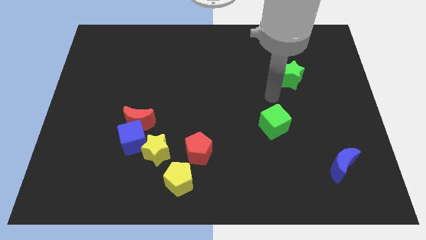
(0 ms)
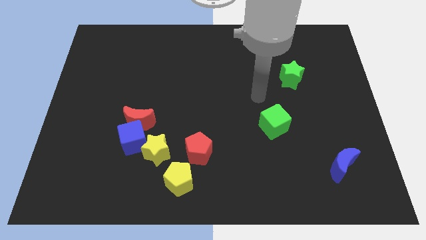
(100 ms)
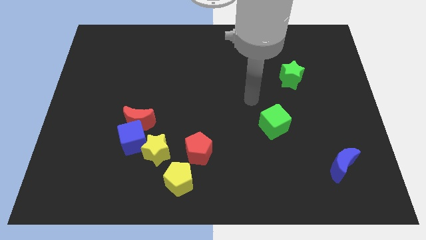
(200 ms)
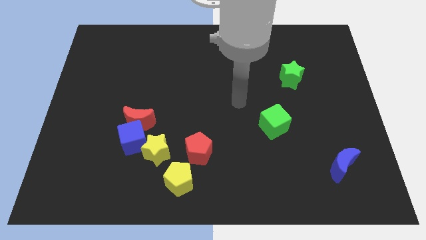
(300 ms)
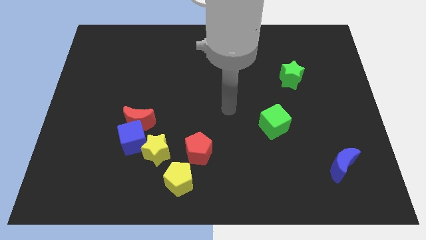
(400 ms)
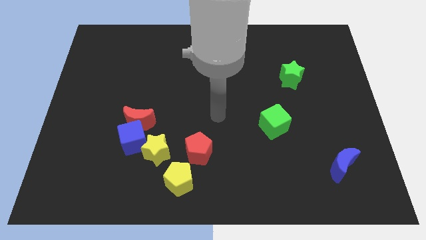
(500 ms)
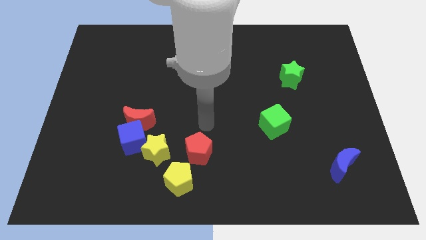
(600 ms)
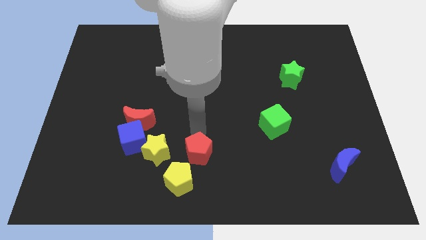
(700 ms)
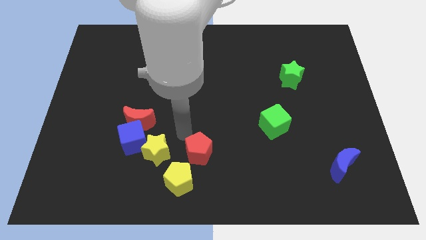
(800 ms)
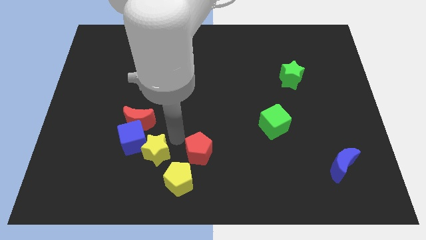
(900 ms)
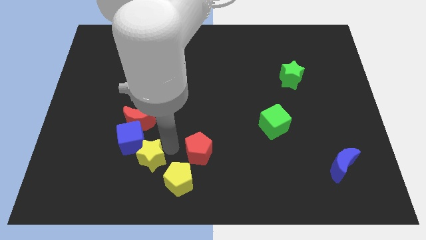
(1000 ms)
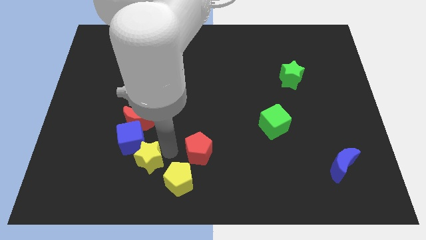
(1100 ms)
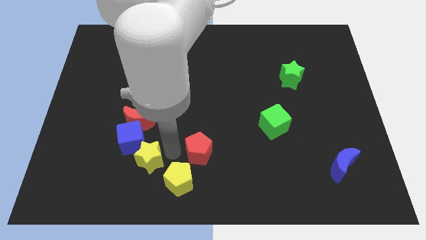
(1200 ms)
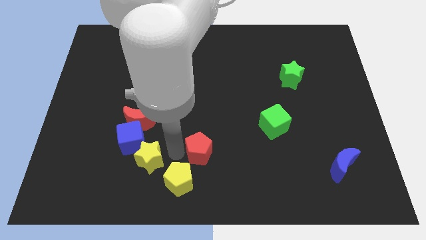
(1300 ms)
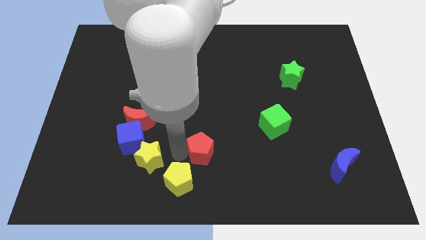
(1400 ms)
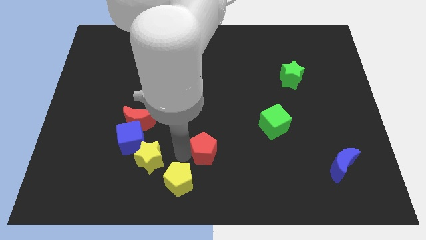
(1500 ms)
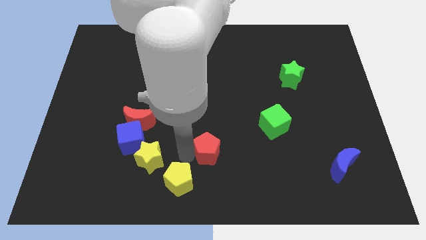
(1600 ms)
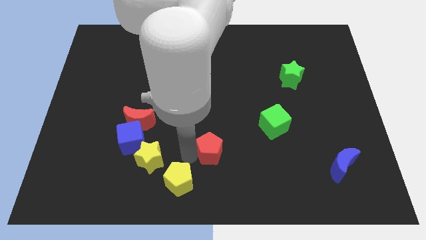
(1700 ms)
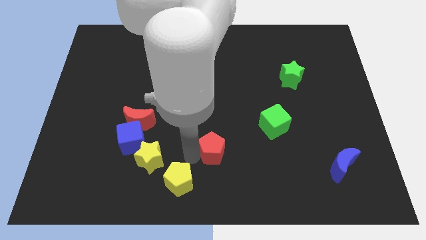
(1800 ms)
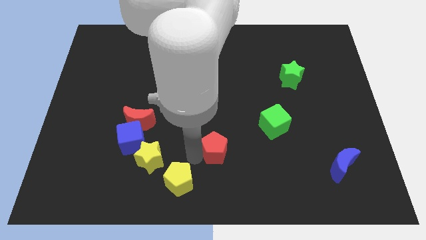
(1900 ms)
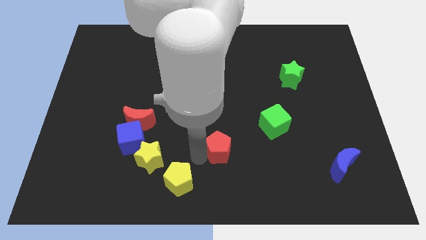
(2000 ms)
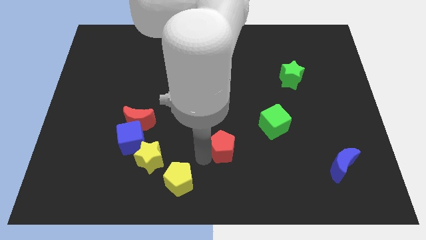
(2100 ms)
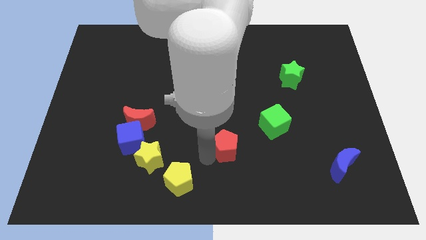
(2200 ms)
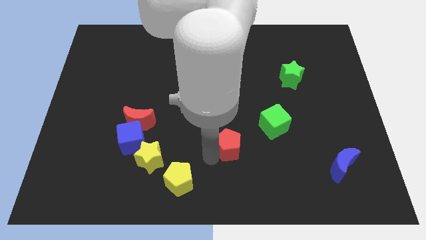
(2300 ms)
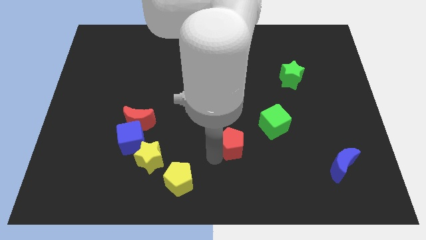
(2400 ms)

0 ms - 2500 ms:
move the red pentagon slightly right

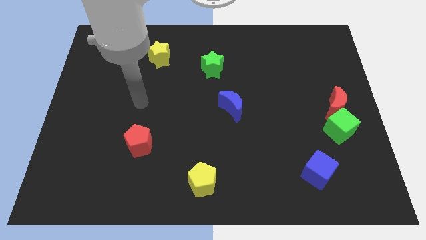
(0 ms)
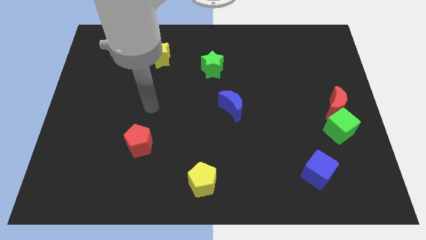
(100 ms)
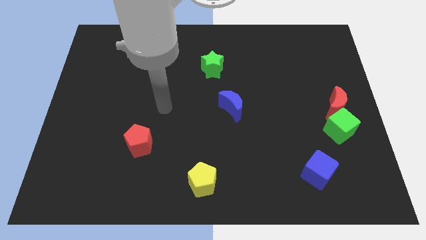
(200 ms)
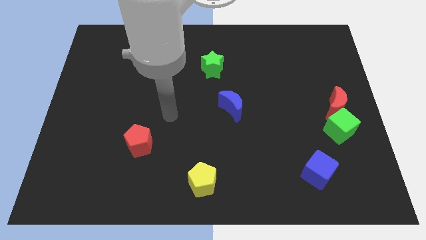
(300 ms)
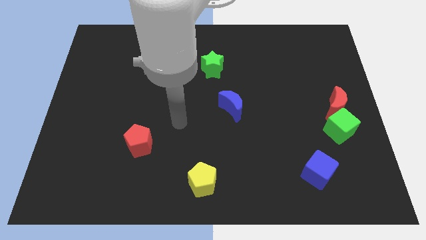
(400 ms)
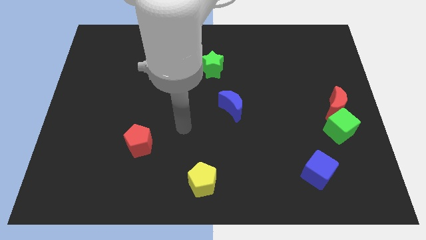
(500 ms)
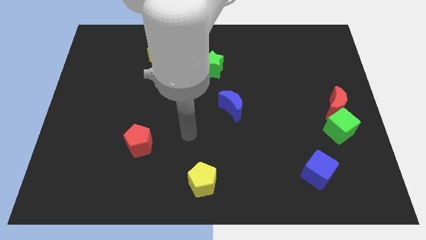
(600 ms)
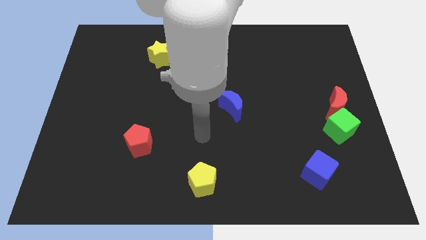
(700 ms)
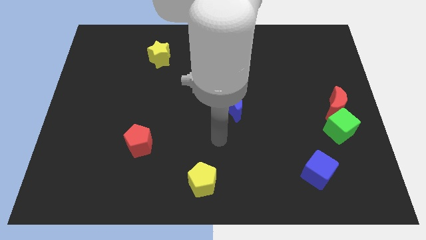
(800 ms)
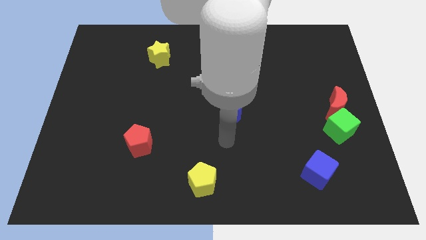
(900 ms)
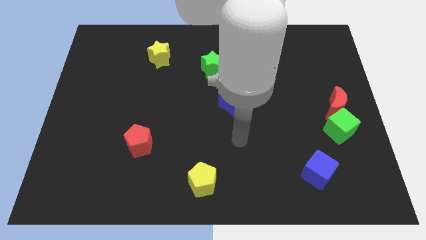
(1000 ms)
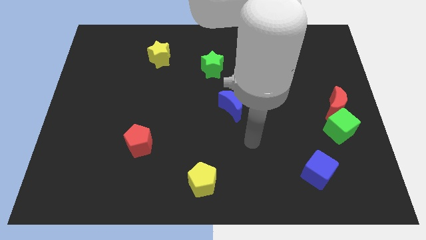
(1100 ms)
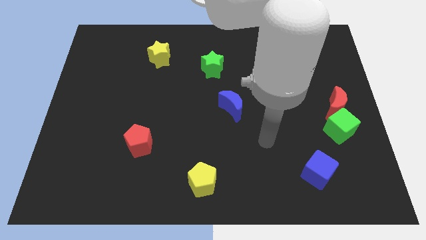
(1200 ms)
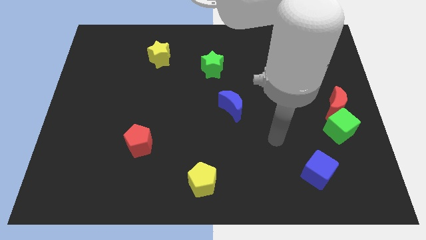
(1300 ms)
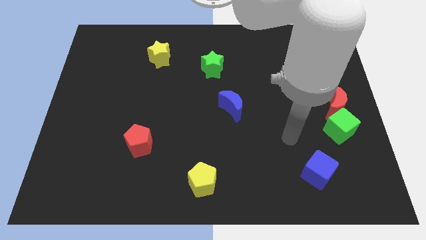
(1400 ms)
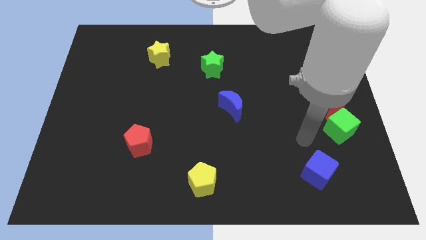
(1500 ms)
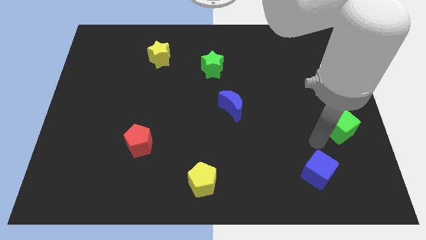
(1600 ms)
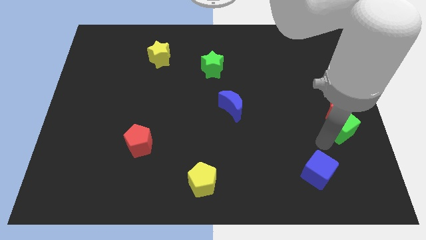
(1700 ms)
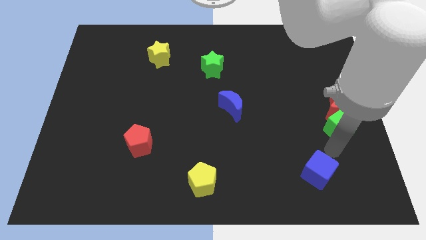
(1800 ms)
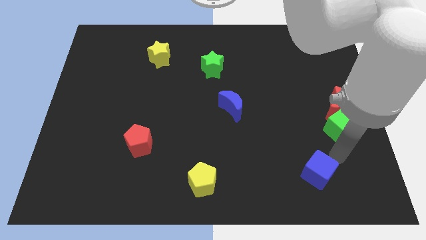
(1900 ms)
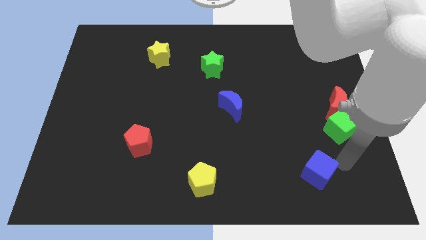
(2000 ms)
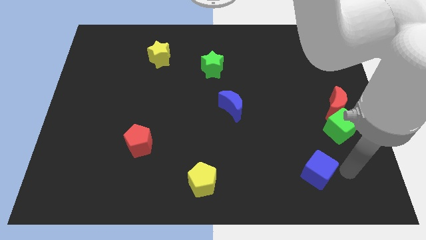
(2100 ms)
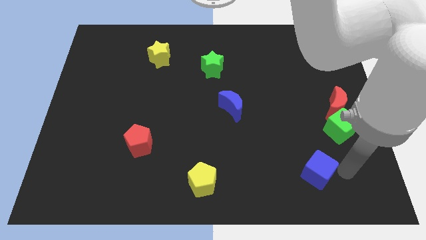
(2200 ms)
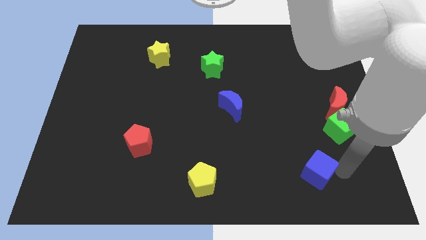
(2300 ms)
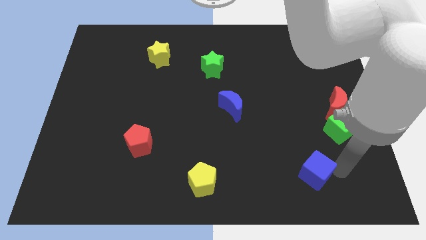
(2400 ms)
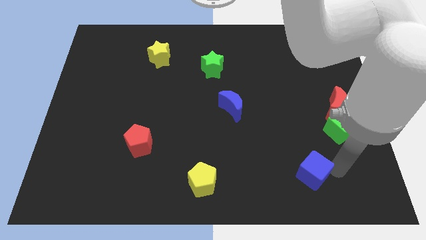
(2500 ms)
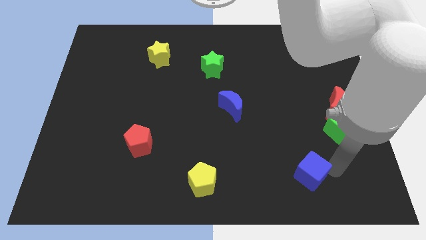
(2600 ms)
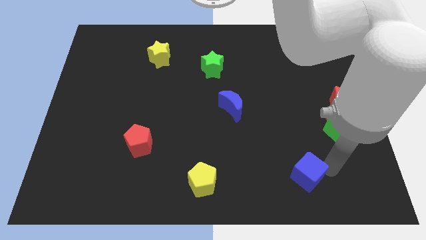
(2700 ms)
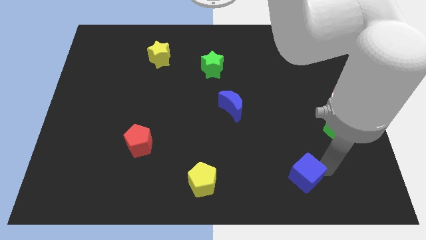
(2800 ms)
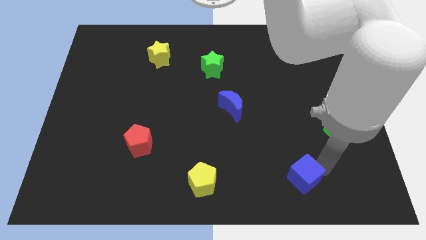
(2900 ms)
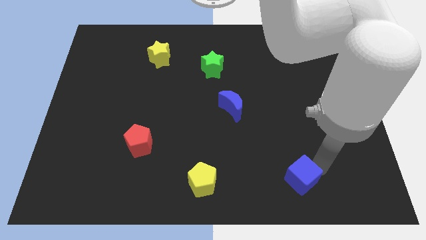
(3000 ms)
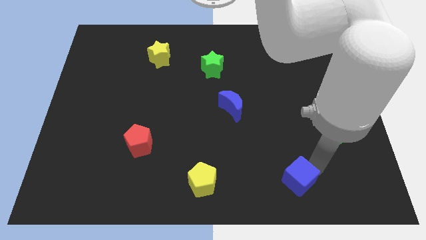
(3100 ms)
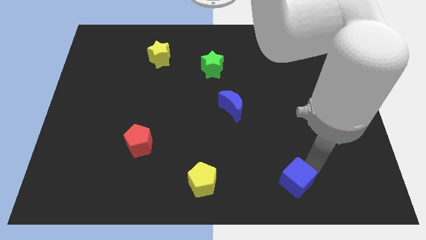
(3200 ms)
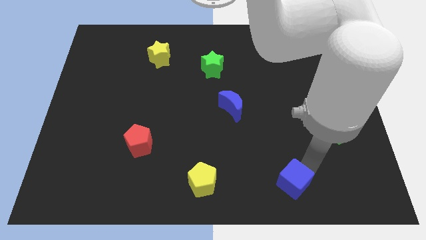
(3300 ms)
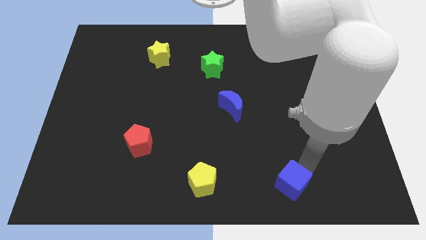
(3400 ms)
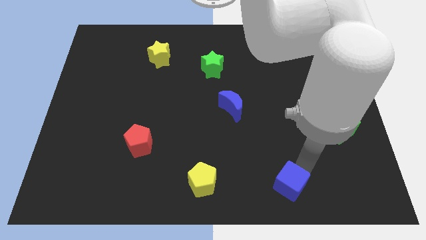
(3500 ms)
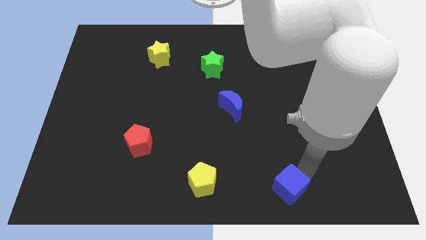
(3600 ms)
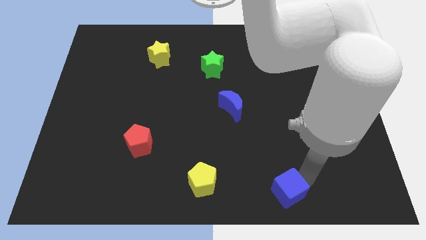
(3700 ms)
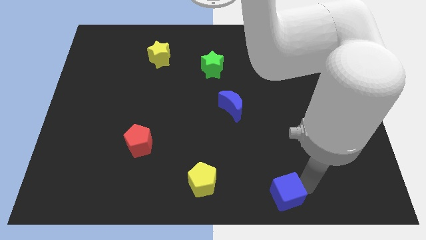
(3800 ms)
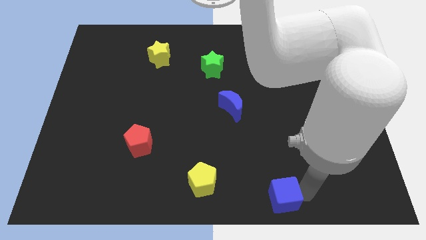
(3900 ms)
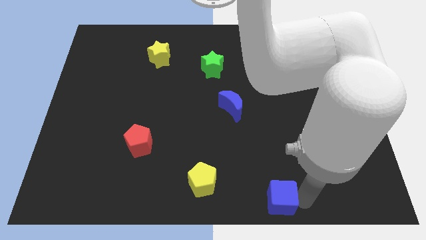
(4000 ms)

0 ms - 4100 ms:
push the blue cube to the left slightly

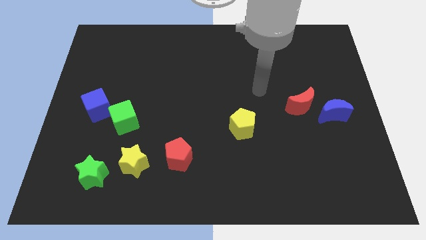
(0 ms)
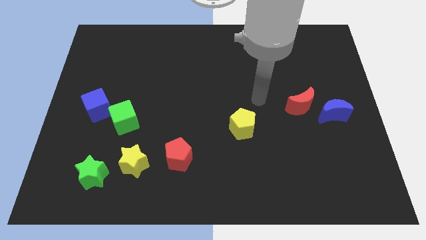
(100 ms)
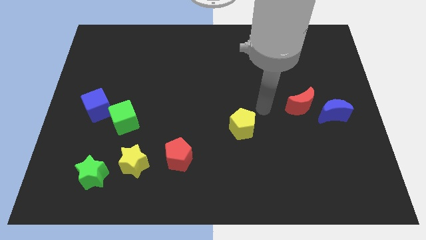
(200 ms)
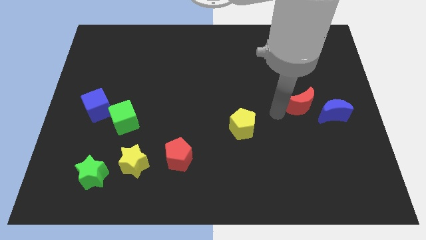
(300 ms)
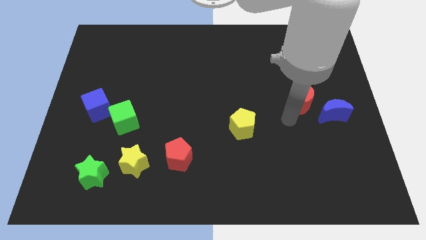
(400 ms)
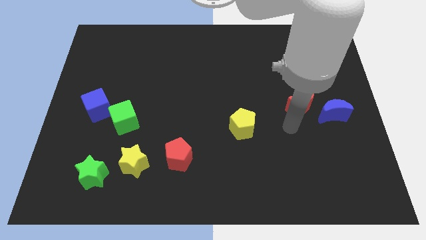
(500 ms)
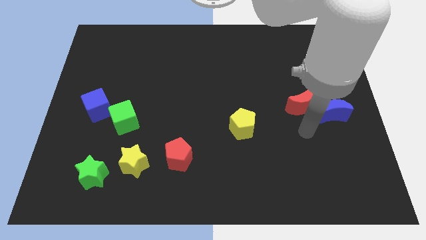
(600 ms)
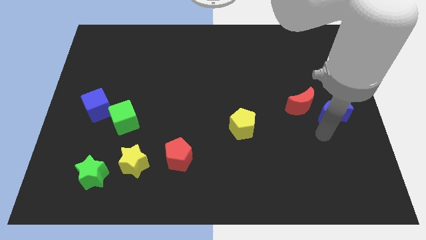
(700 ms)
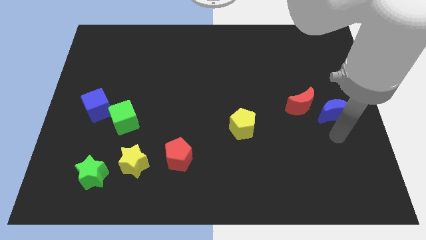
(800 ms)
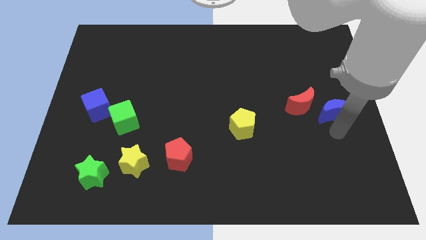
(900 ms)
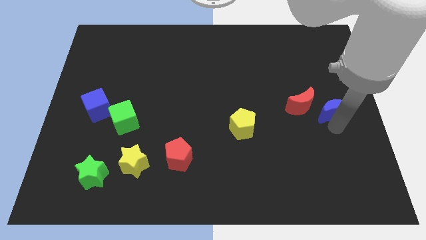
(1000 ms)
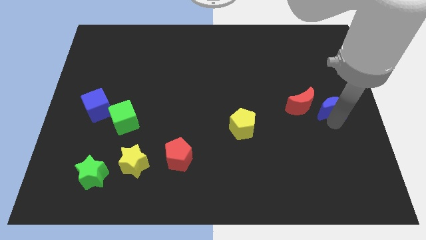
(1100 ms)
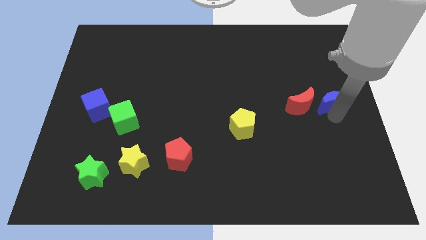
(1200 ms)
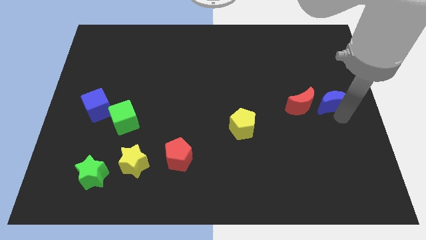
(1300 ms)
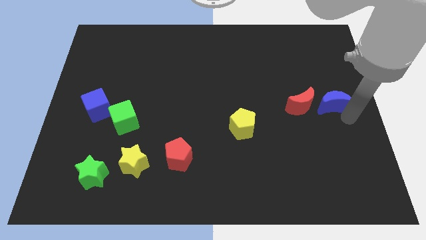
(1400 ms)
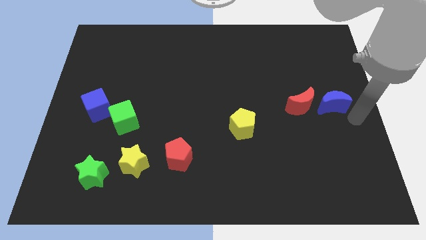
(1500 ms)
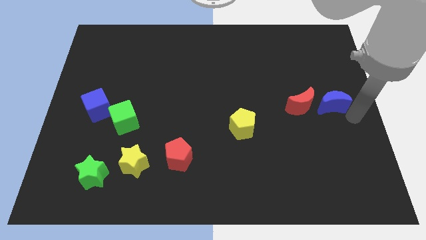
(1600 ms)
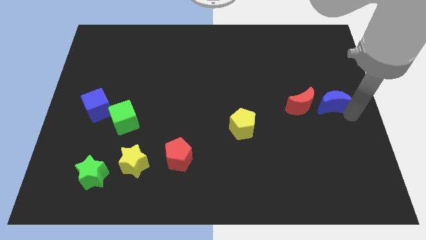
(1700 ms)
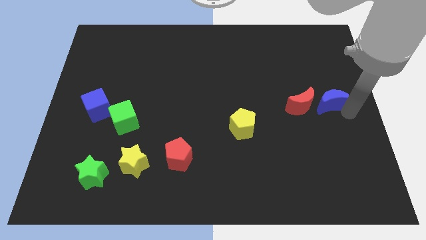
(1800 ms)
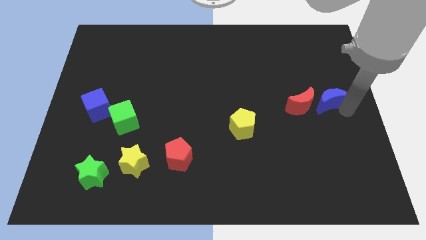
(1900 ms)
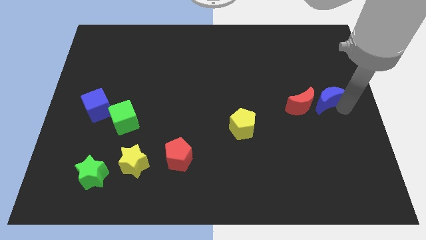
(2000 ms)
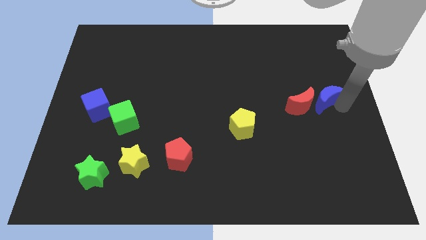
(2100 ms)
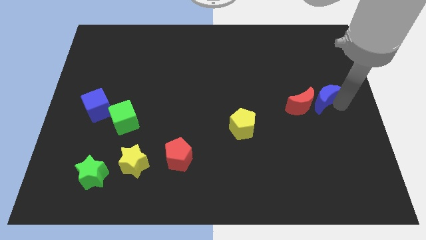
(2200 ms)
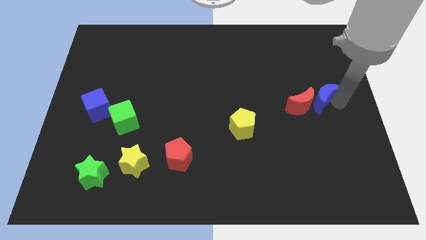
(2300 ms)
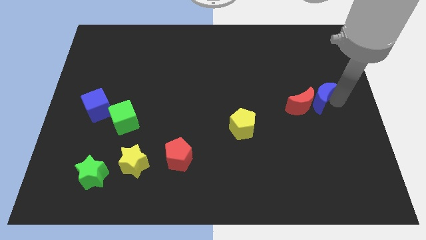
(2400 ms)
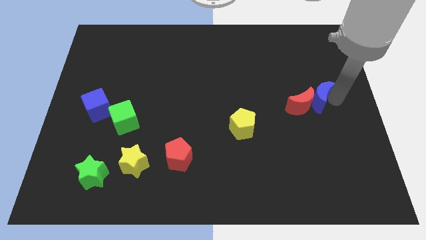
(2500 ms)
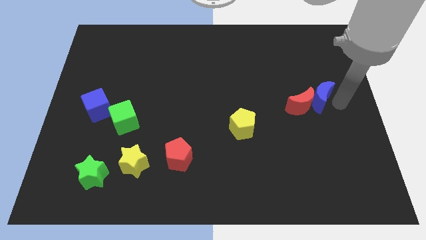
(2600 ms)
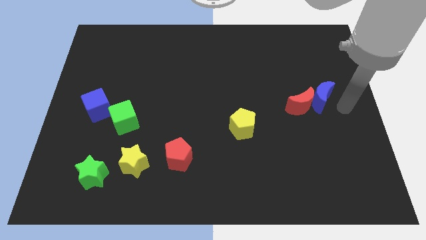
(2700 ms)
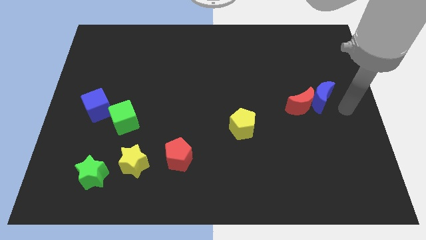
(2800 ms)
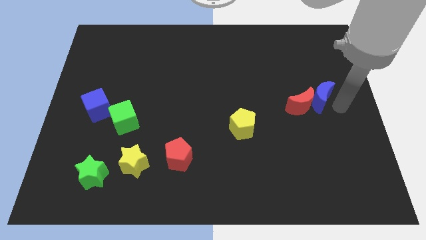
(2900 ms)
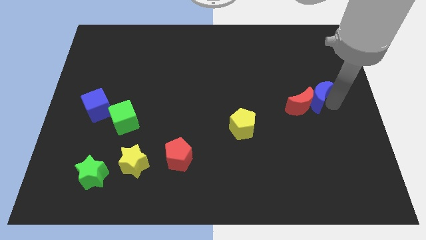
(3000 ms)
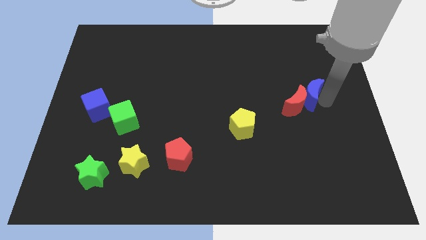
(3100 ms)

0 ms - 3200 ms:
push the blue moon upwards and left a bit
